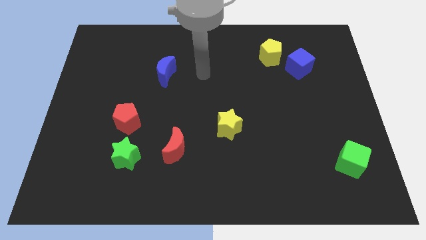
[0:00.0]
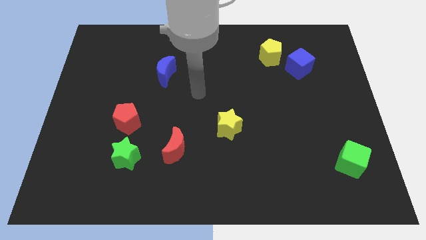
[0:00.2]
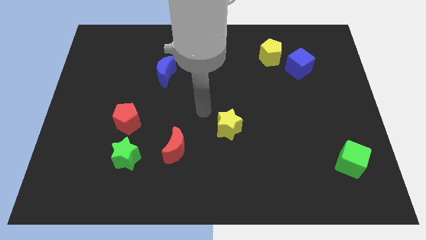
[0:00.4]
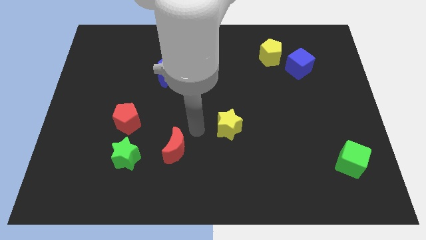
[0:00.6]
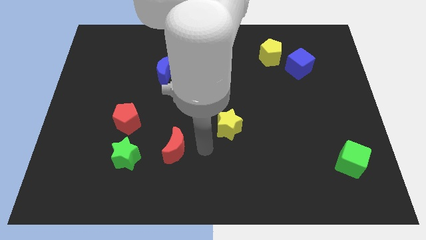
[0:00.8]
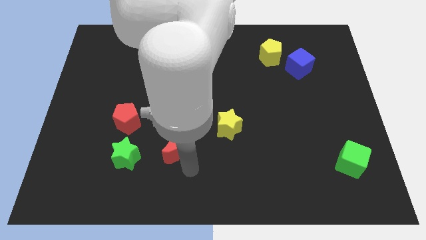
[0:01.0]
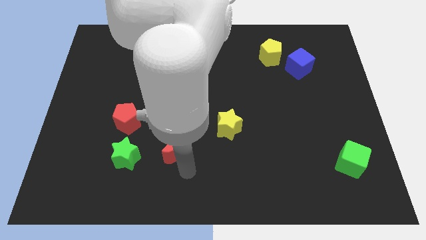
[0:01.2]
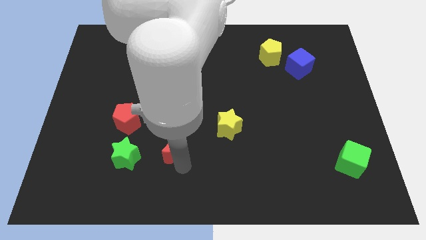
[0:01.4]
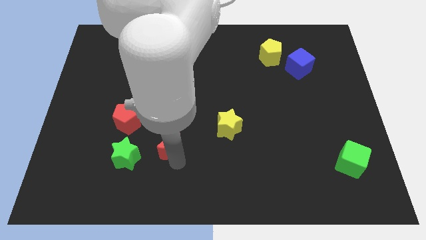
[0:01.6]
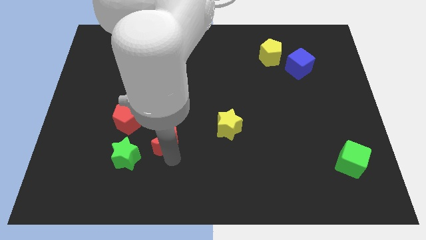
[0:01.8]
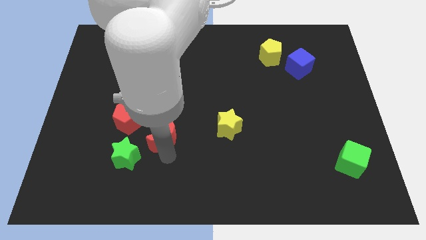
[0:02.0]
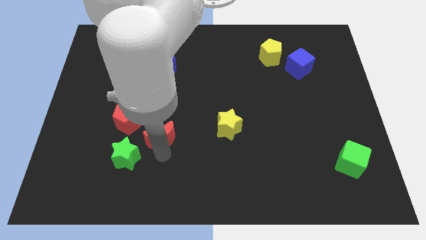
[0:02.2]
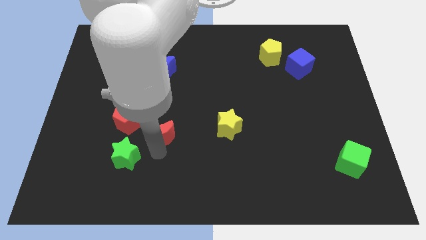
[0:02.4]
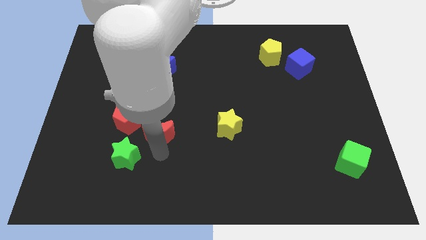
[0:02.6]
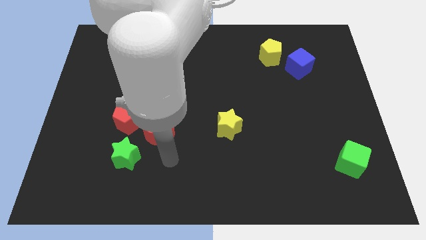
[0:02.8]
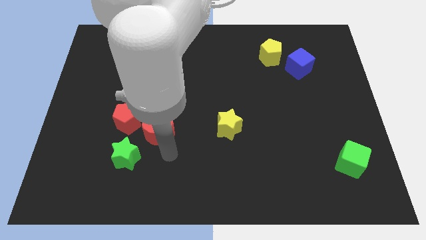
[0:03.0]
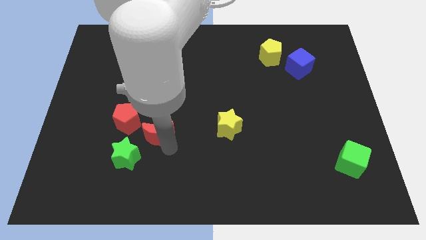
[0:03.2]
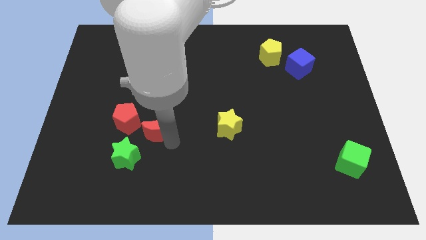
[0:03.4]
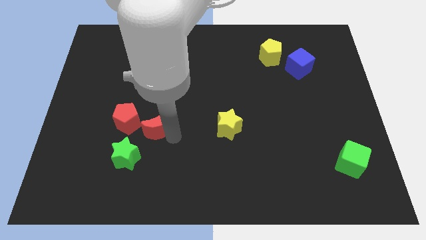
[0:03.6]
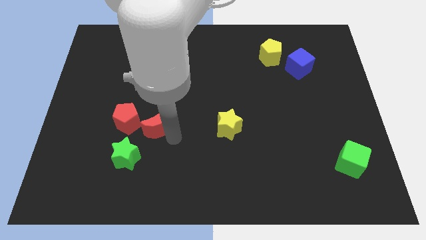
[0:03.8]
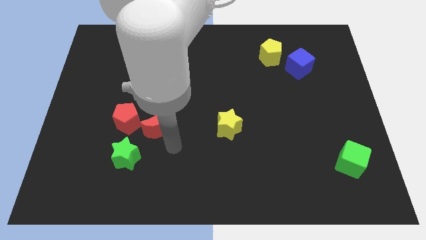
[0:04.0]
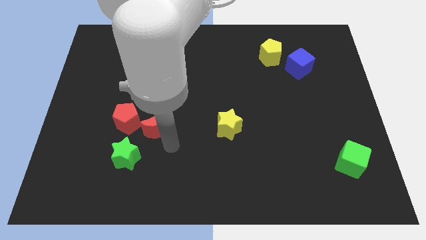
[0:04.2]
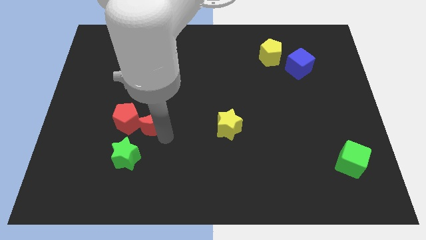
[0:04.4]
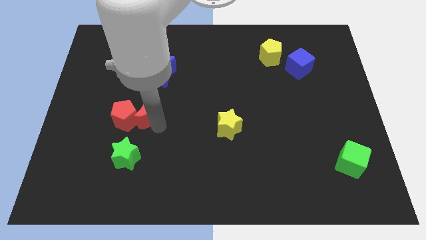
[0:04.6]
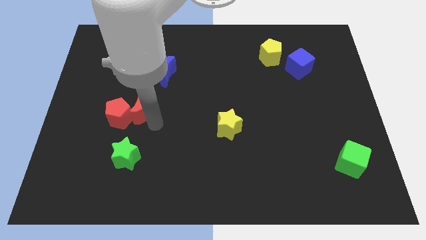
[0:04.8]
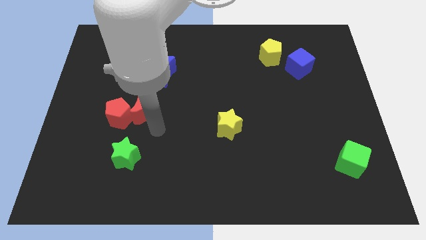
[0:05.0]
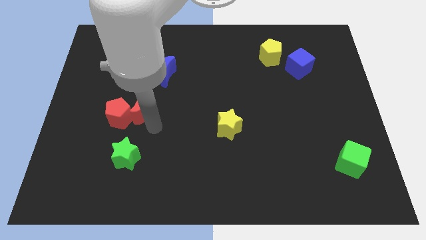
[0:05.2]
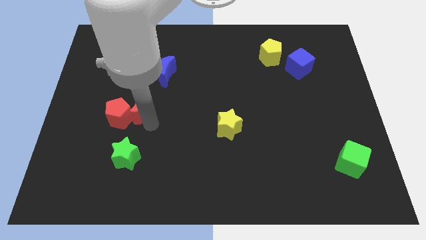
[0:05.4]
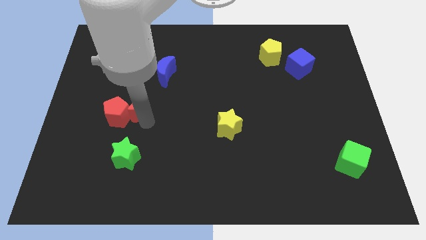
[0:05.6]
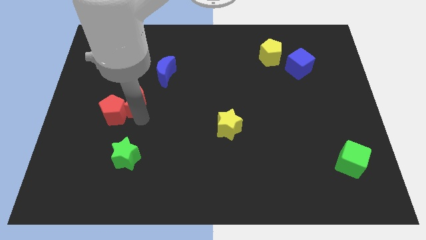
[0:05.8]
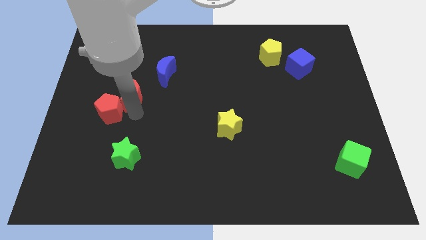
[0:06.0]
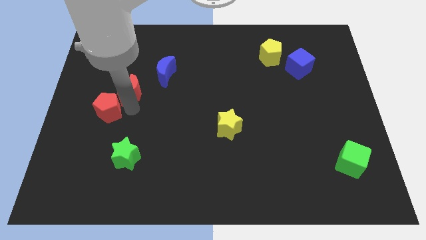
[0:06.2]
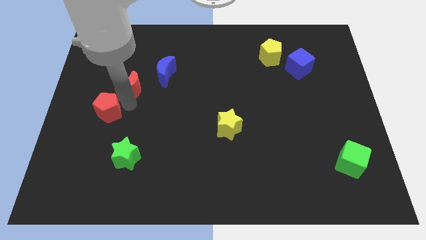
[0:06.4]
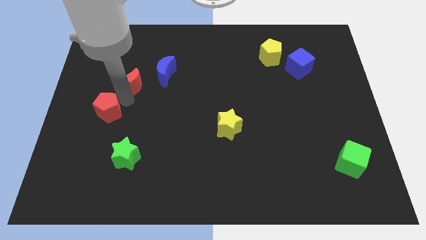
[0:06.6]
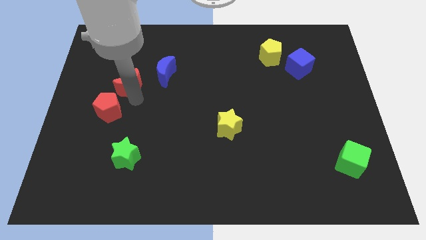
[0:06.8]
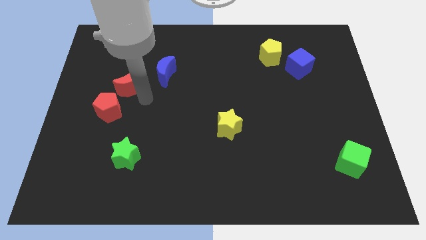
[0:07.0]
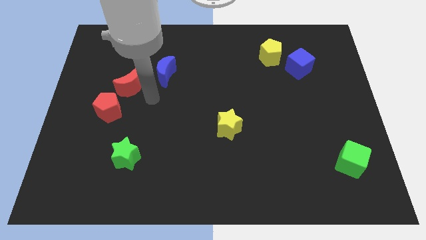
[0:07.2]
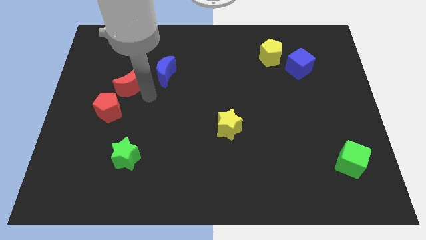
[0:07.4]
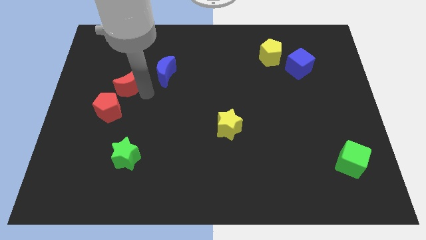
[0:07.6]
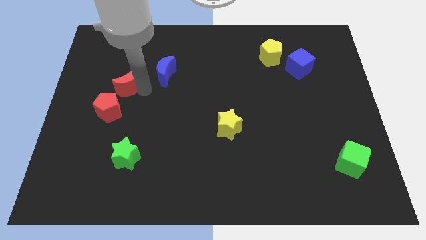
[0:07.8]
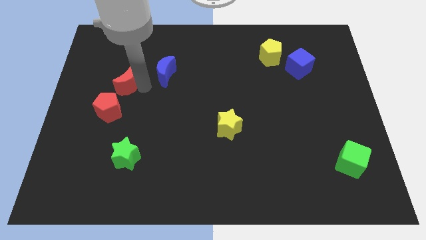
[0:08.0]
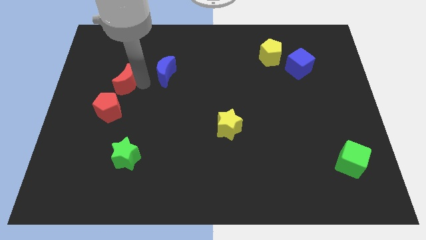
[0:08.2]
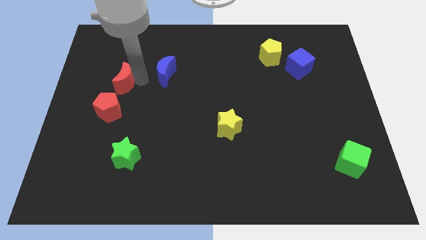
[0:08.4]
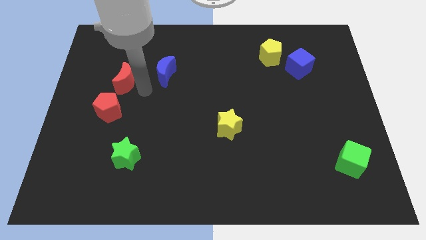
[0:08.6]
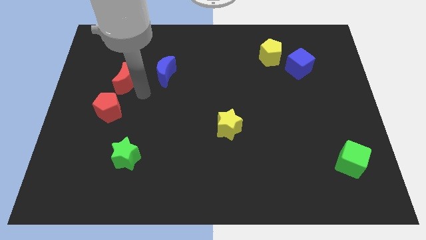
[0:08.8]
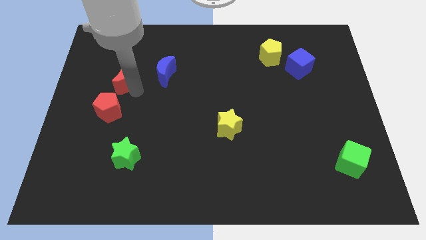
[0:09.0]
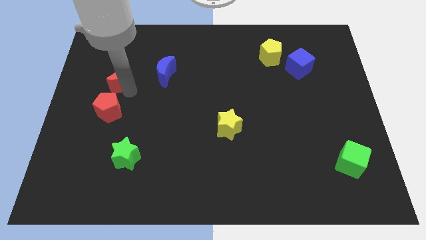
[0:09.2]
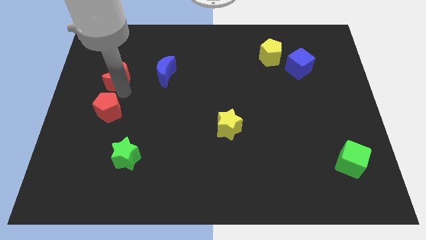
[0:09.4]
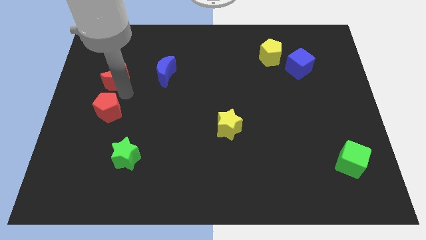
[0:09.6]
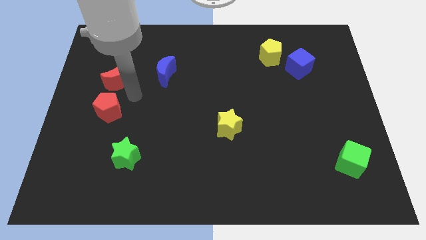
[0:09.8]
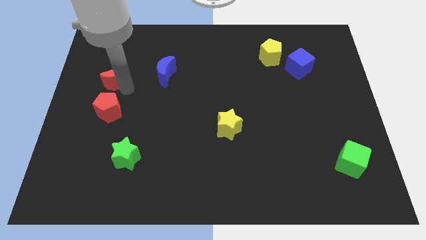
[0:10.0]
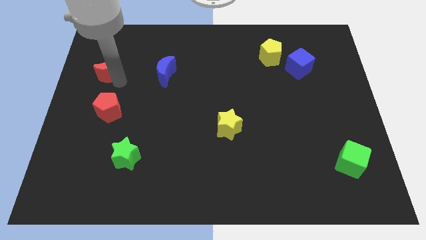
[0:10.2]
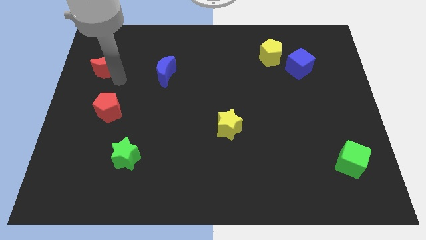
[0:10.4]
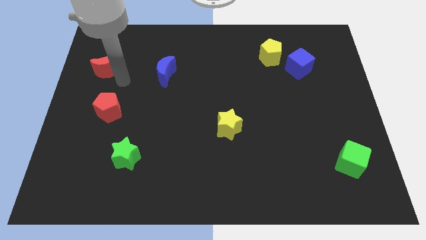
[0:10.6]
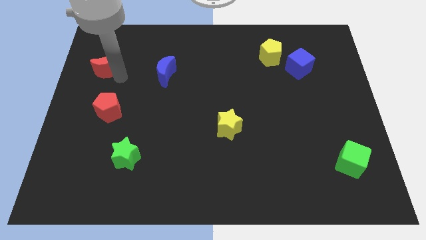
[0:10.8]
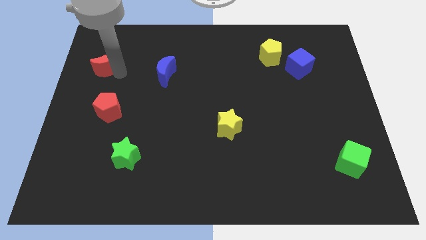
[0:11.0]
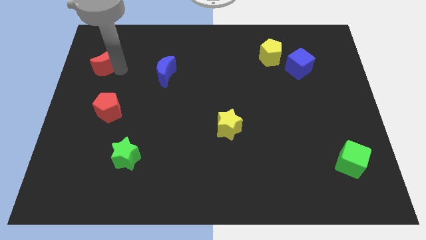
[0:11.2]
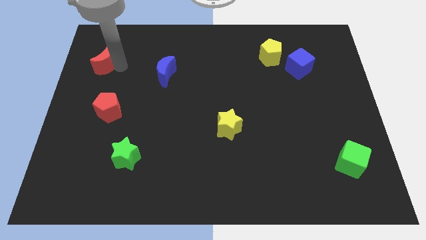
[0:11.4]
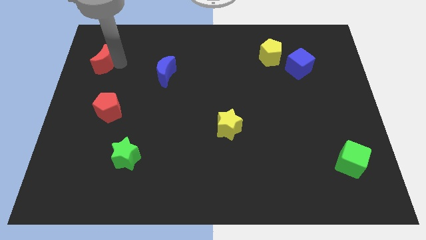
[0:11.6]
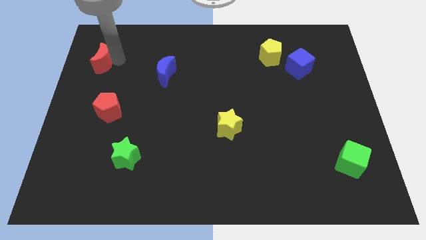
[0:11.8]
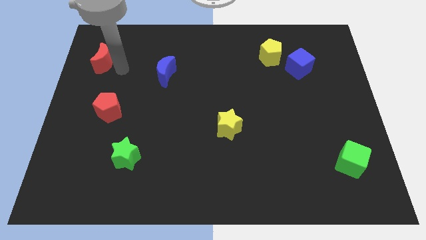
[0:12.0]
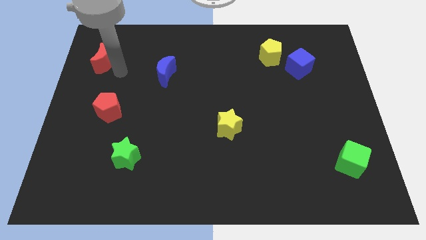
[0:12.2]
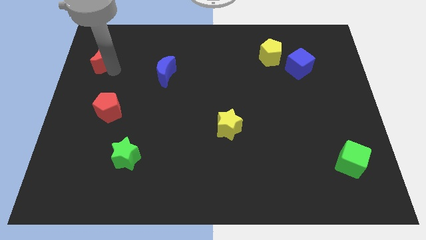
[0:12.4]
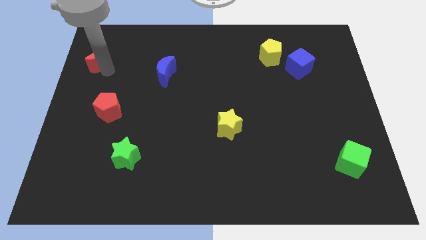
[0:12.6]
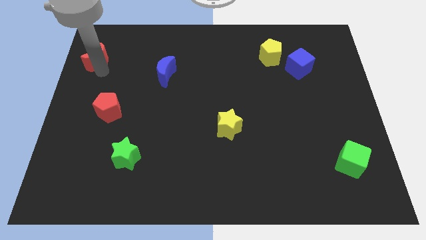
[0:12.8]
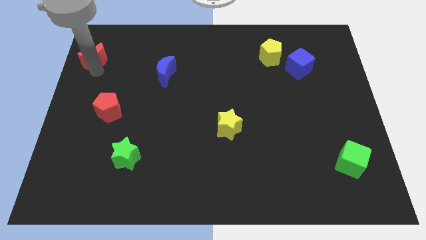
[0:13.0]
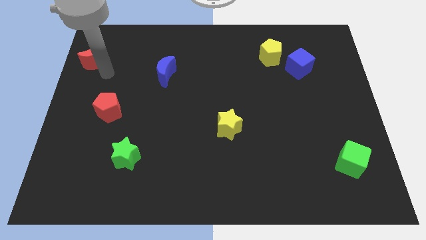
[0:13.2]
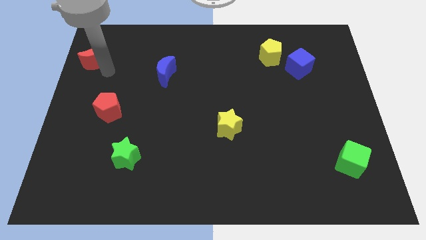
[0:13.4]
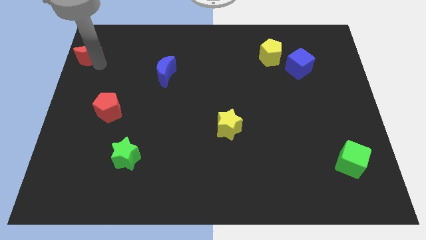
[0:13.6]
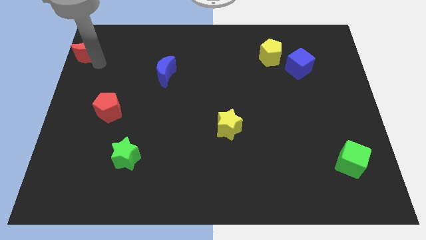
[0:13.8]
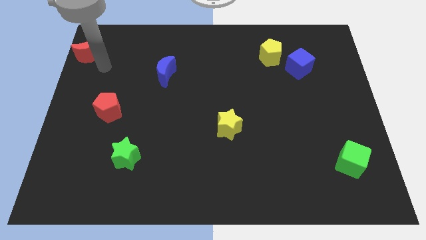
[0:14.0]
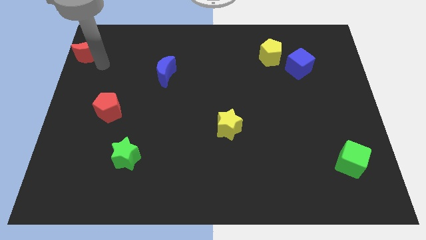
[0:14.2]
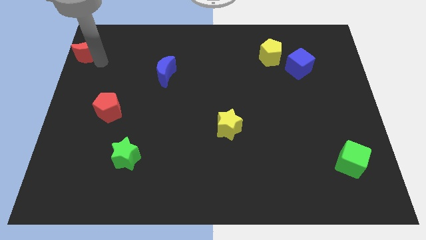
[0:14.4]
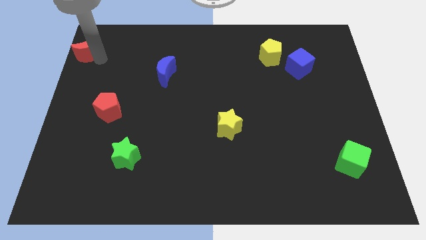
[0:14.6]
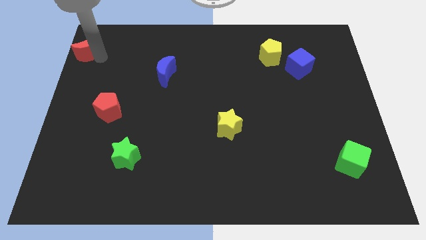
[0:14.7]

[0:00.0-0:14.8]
slide the red moon to the top left corner
